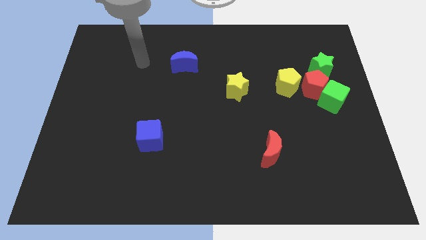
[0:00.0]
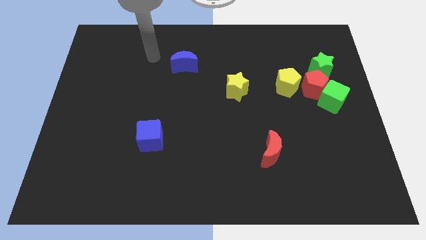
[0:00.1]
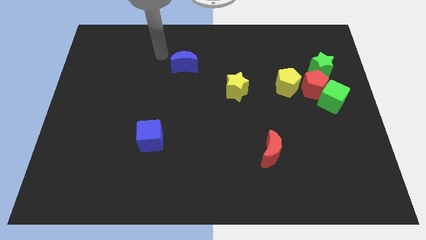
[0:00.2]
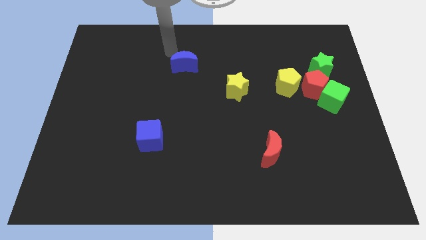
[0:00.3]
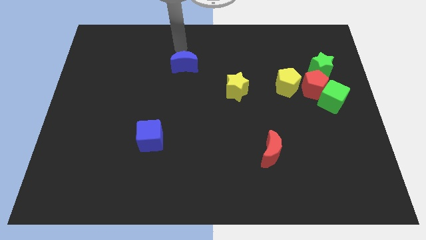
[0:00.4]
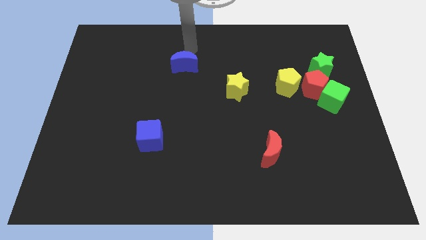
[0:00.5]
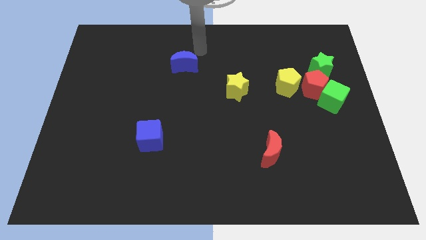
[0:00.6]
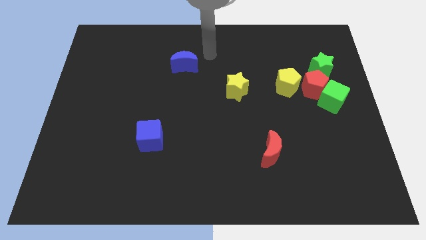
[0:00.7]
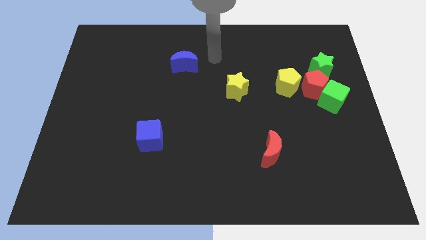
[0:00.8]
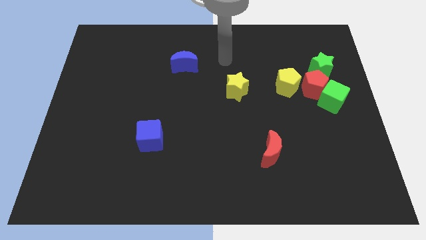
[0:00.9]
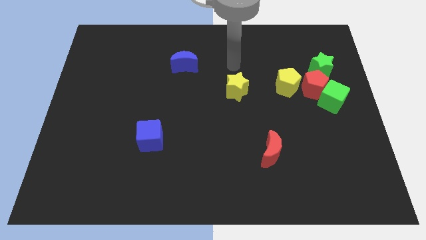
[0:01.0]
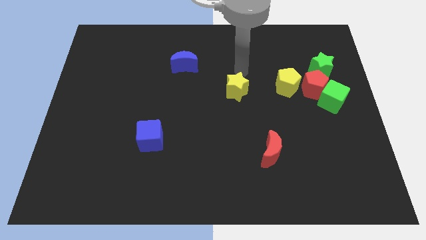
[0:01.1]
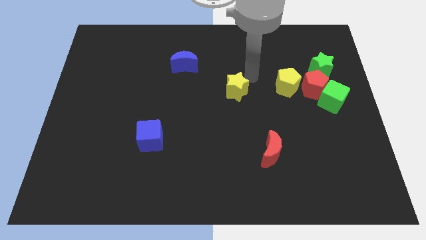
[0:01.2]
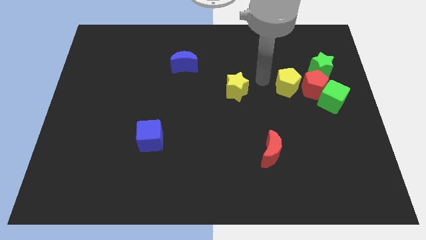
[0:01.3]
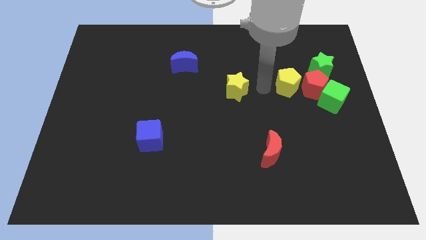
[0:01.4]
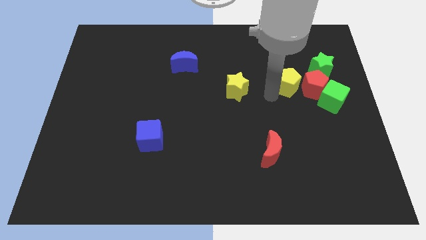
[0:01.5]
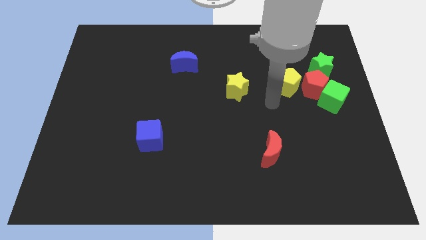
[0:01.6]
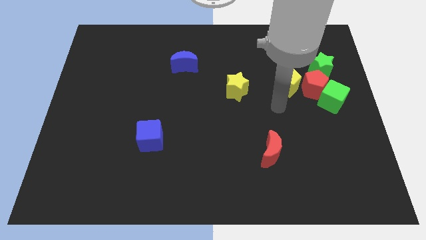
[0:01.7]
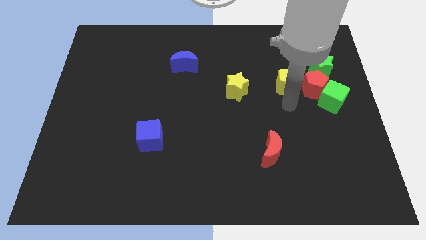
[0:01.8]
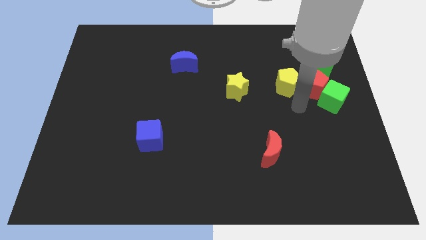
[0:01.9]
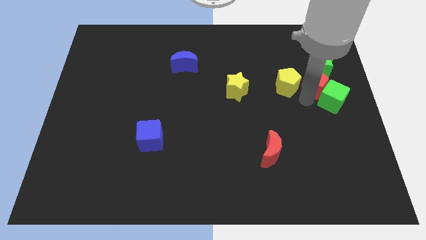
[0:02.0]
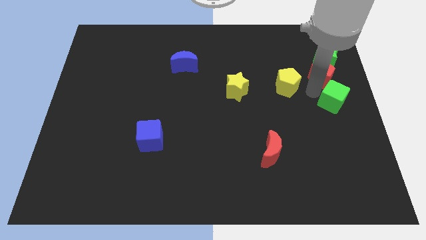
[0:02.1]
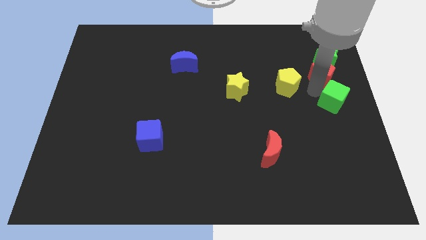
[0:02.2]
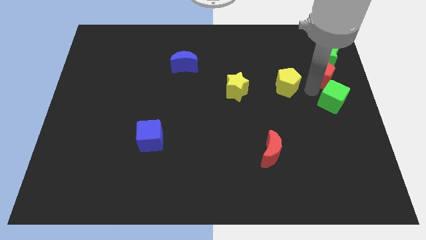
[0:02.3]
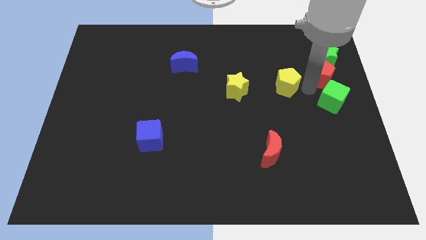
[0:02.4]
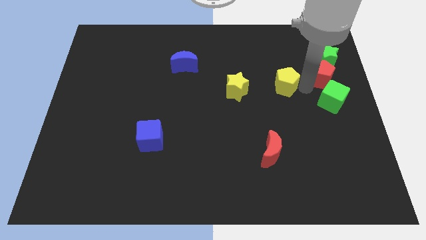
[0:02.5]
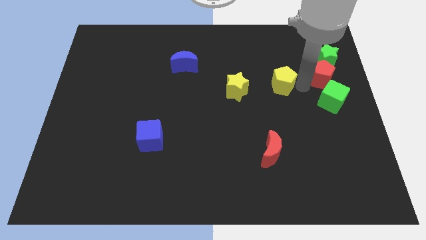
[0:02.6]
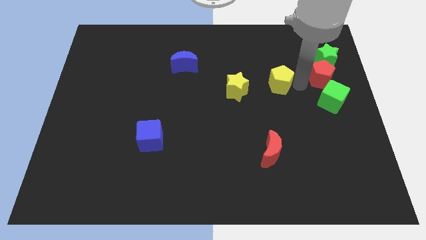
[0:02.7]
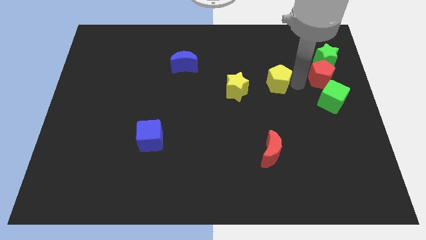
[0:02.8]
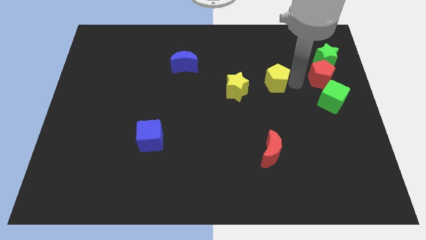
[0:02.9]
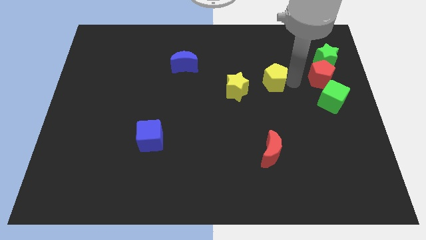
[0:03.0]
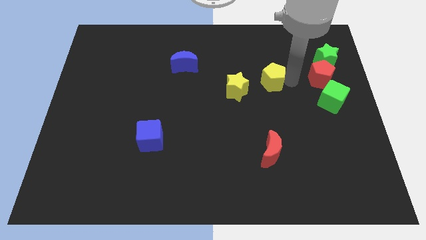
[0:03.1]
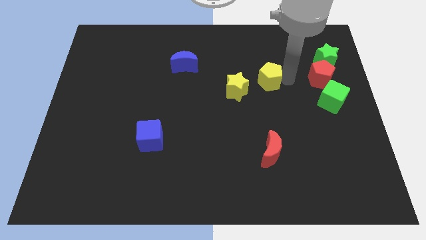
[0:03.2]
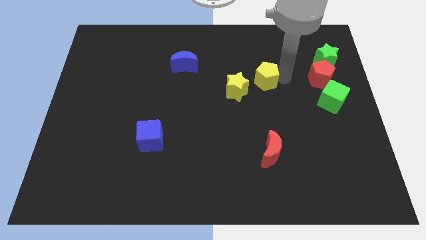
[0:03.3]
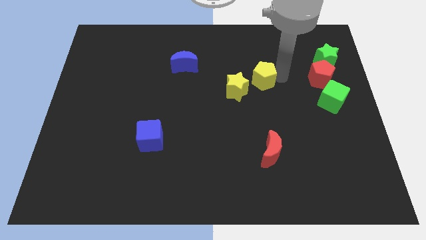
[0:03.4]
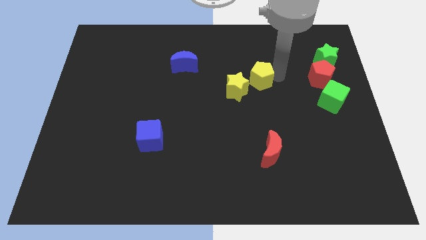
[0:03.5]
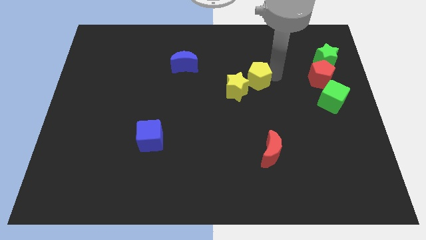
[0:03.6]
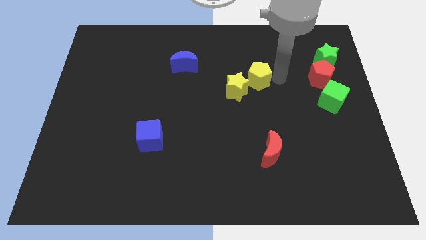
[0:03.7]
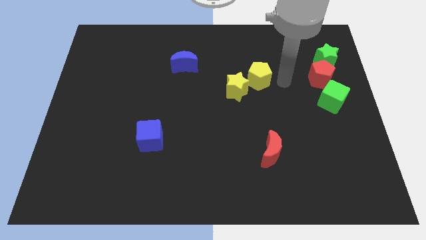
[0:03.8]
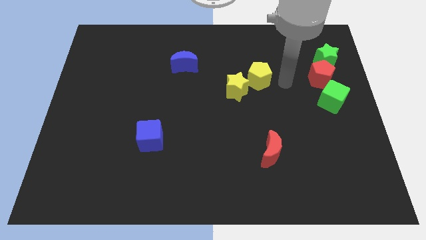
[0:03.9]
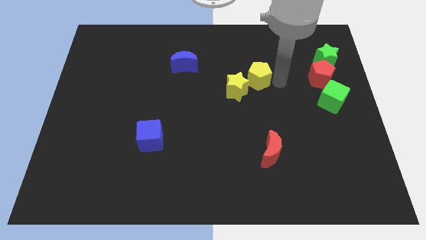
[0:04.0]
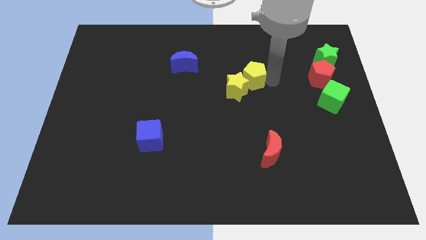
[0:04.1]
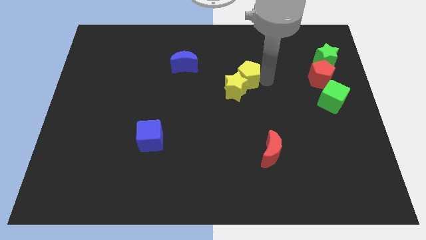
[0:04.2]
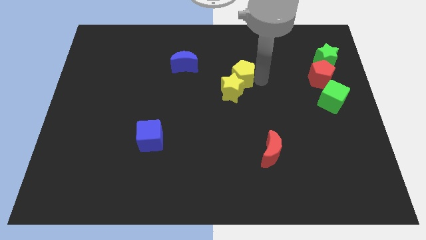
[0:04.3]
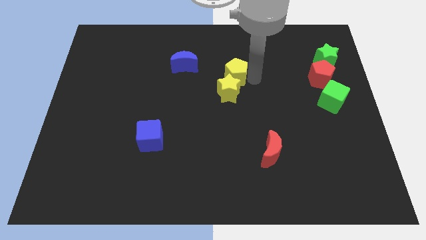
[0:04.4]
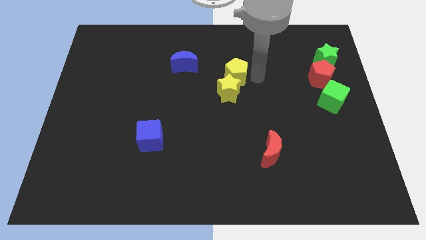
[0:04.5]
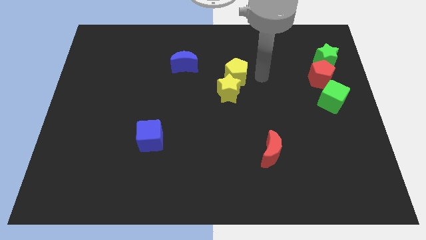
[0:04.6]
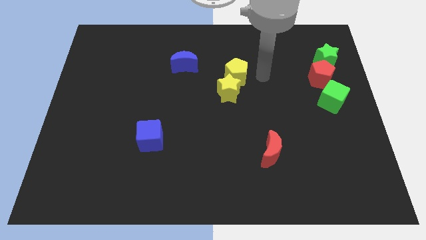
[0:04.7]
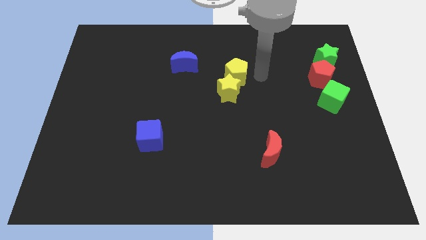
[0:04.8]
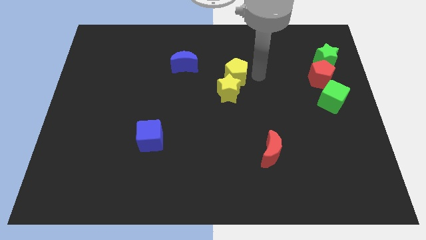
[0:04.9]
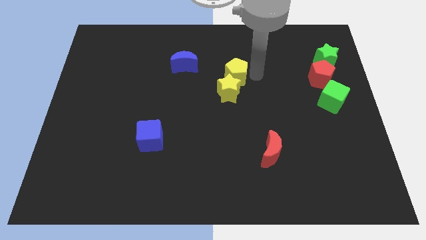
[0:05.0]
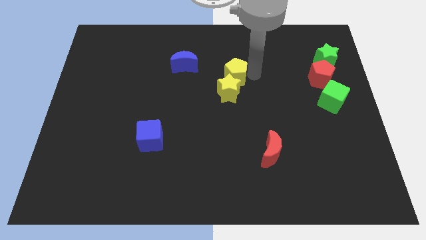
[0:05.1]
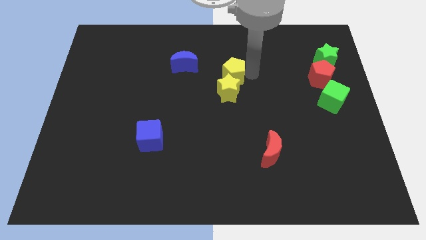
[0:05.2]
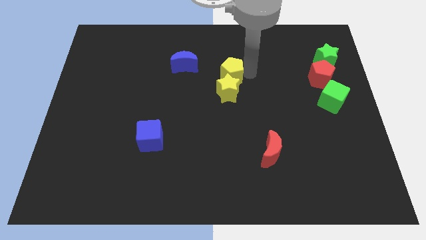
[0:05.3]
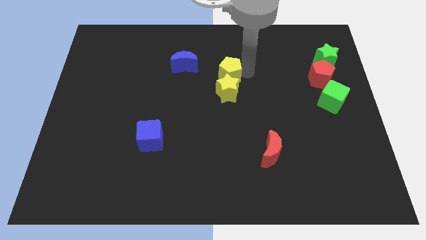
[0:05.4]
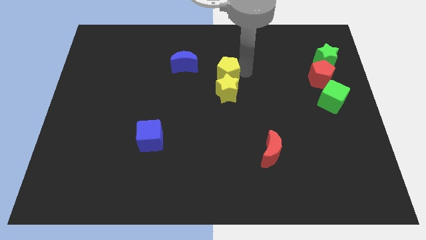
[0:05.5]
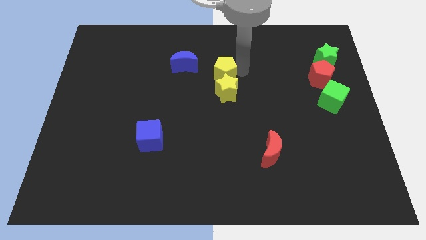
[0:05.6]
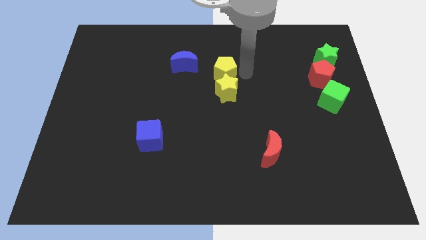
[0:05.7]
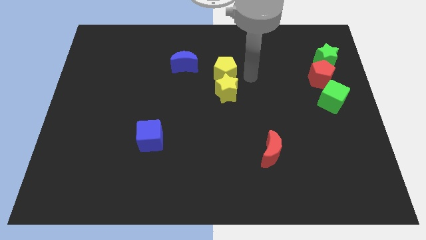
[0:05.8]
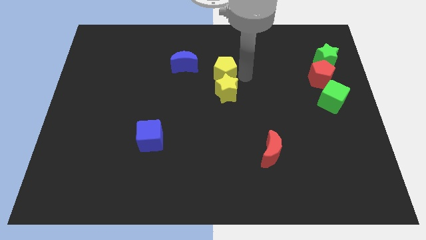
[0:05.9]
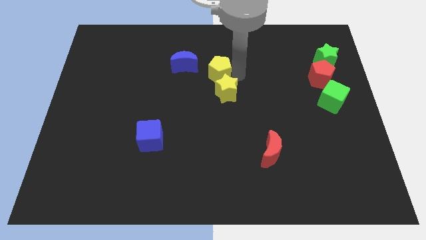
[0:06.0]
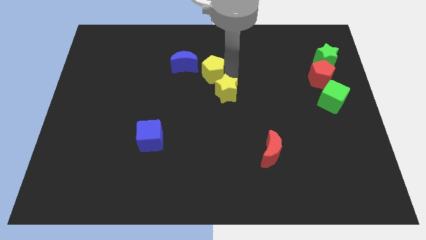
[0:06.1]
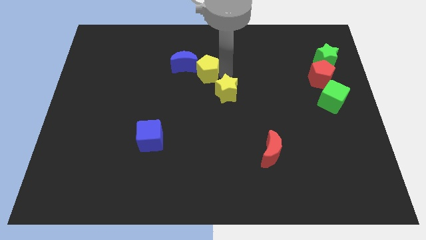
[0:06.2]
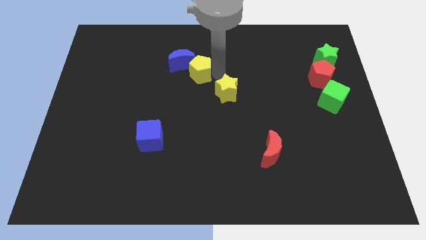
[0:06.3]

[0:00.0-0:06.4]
slide the yellow pentagon to the blue moon
